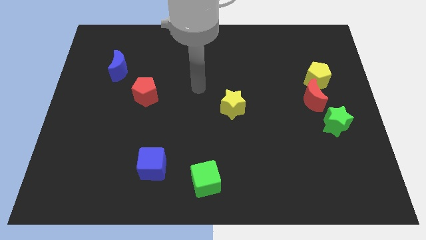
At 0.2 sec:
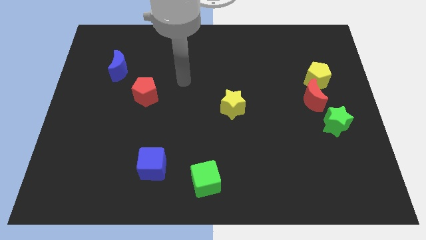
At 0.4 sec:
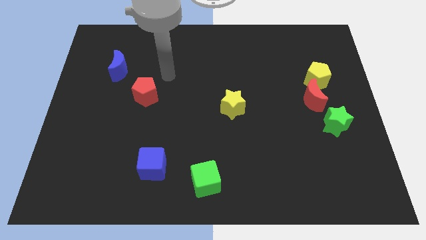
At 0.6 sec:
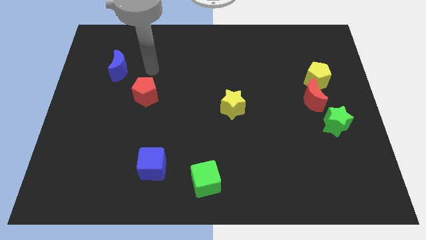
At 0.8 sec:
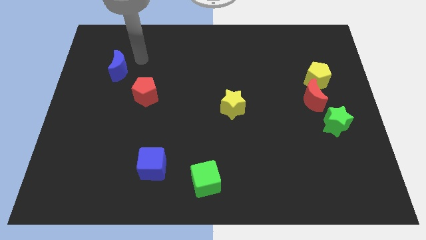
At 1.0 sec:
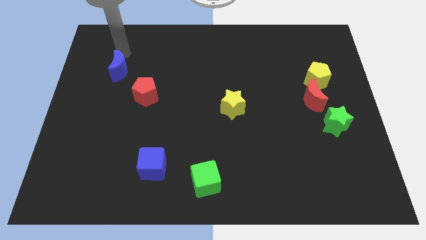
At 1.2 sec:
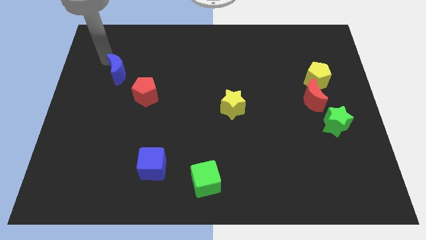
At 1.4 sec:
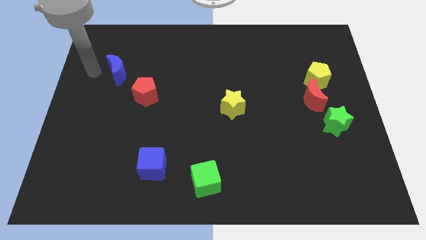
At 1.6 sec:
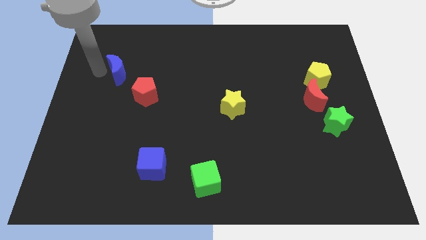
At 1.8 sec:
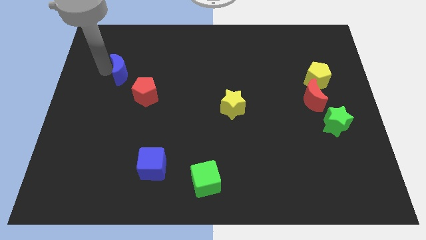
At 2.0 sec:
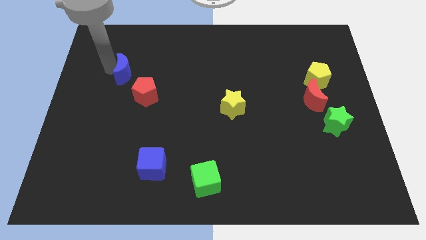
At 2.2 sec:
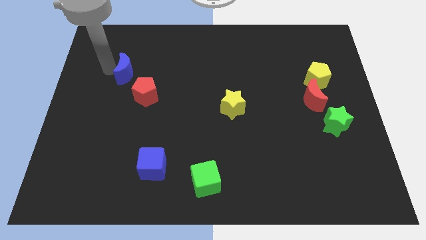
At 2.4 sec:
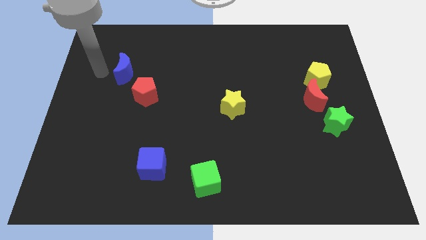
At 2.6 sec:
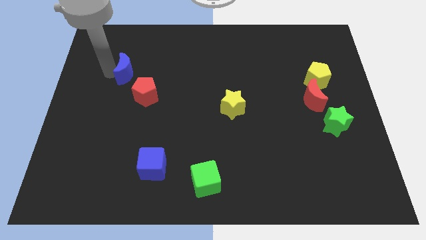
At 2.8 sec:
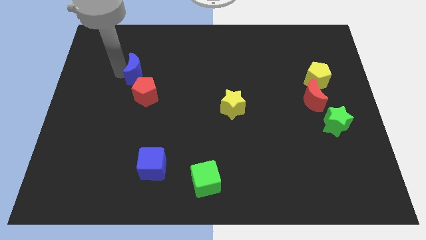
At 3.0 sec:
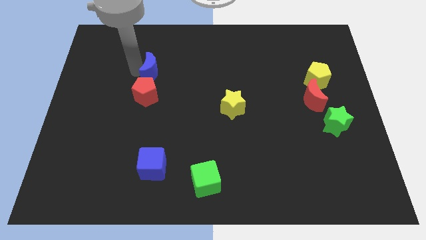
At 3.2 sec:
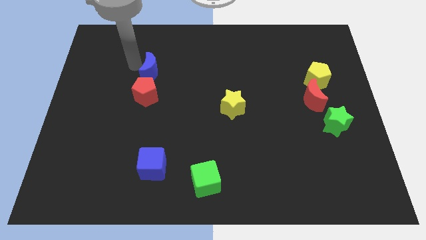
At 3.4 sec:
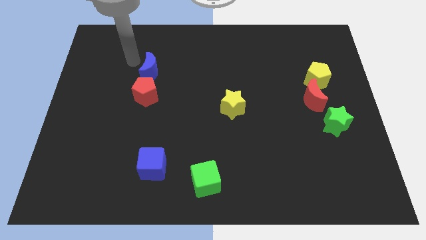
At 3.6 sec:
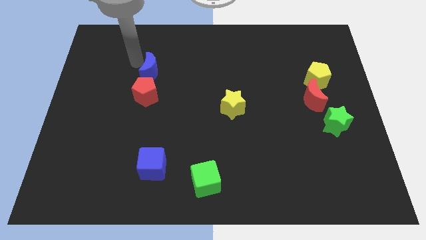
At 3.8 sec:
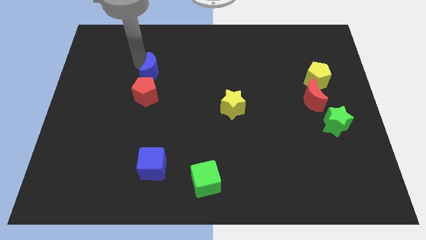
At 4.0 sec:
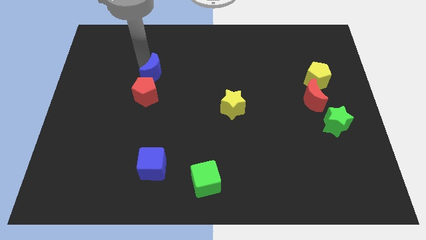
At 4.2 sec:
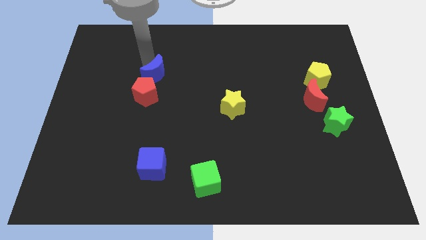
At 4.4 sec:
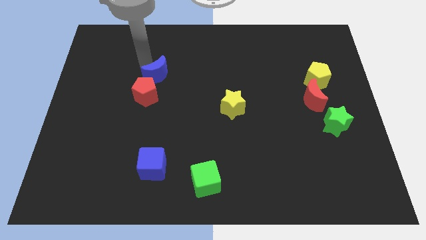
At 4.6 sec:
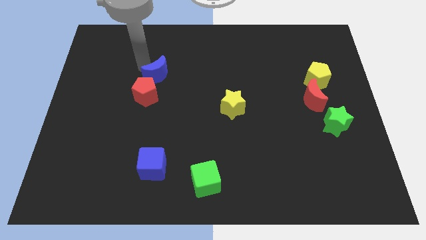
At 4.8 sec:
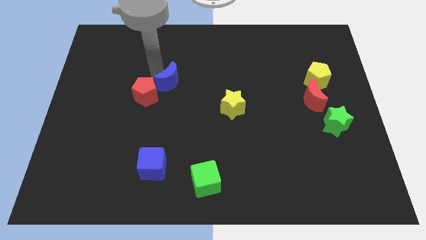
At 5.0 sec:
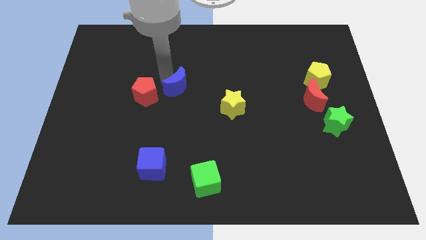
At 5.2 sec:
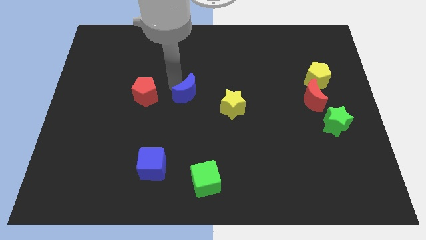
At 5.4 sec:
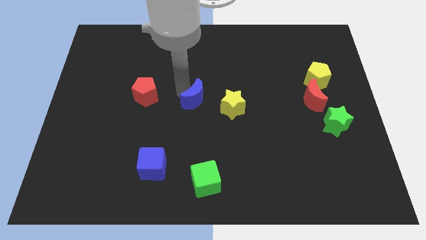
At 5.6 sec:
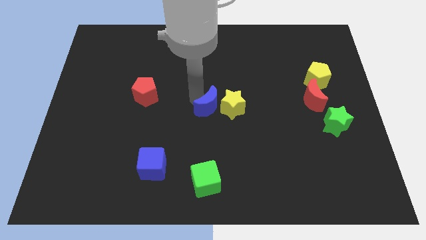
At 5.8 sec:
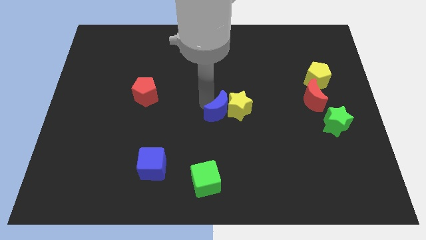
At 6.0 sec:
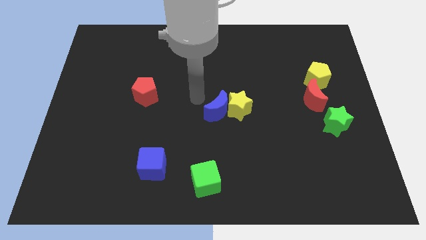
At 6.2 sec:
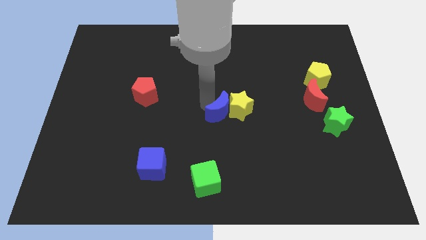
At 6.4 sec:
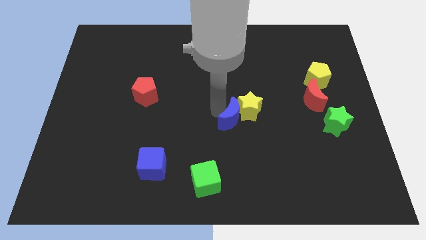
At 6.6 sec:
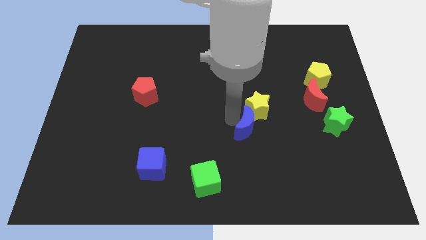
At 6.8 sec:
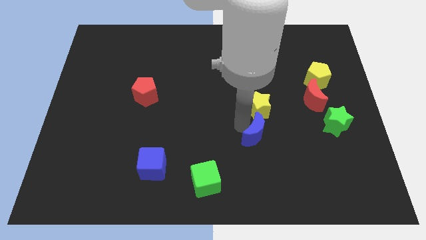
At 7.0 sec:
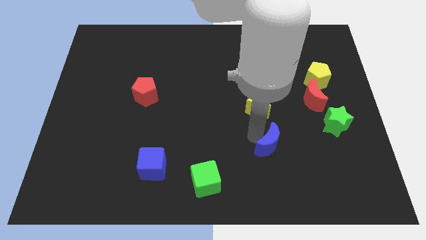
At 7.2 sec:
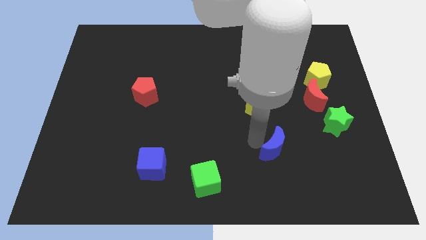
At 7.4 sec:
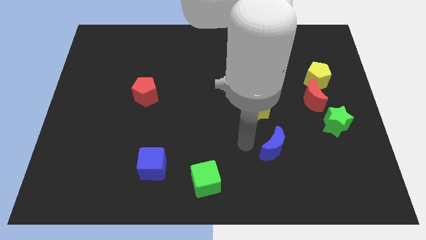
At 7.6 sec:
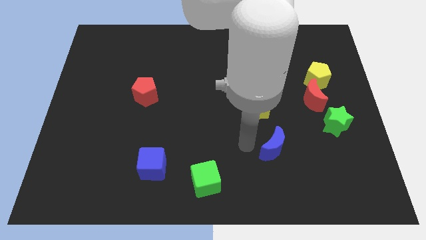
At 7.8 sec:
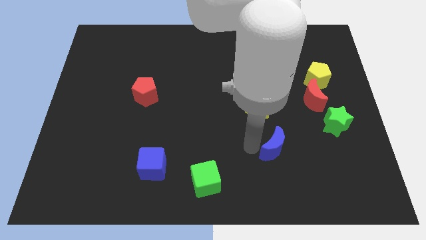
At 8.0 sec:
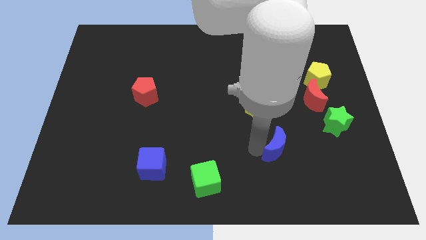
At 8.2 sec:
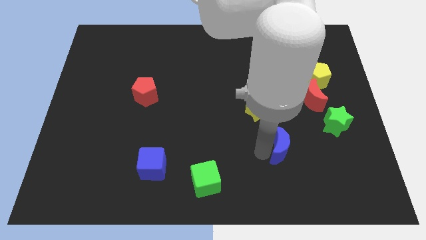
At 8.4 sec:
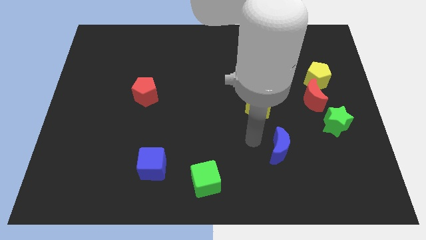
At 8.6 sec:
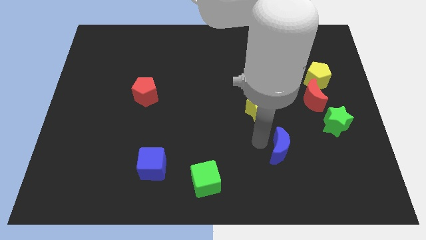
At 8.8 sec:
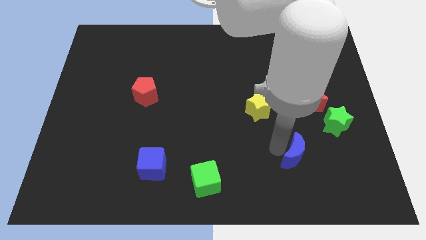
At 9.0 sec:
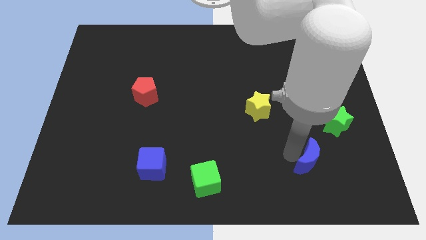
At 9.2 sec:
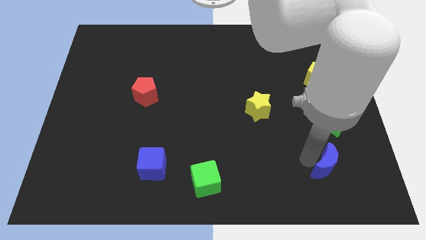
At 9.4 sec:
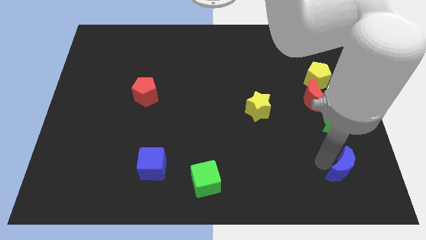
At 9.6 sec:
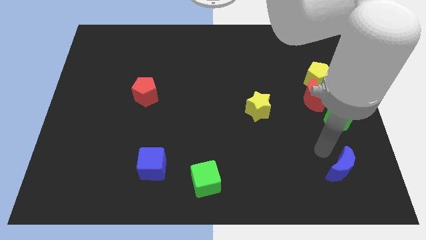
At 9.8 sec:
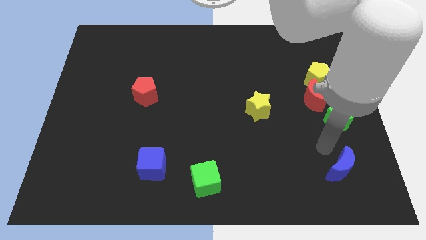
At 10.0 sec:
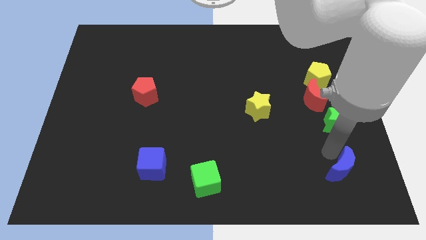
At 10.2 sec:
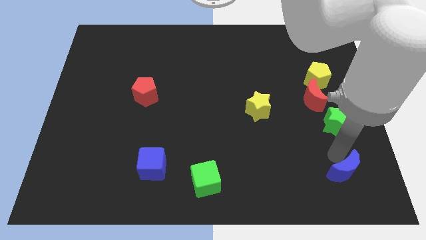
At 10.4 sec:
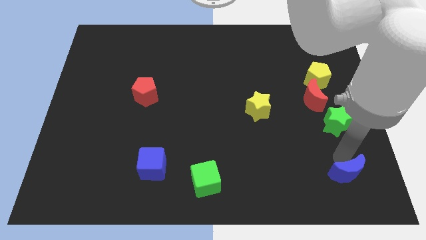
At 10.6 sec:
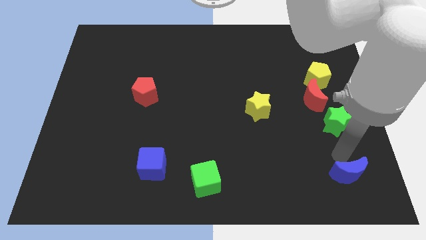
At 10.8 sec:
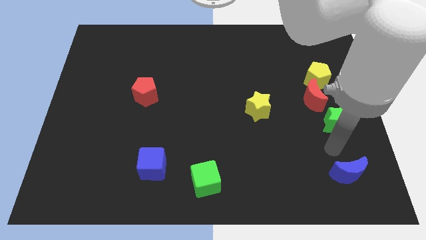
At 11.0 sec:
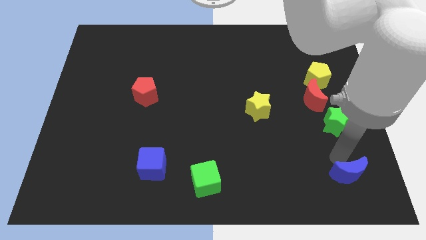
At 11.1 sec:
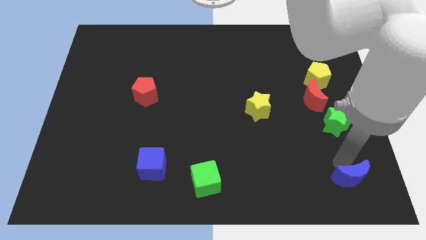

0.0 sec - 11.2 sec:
push the blue moon to the bottom right of the board

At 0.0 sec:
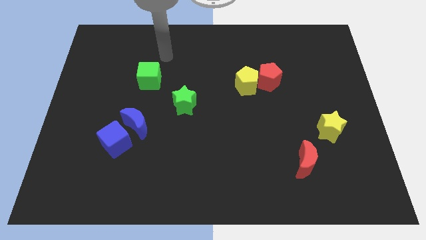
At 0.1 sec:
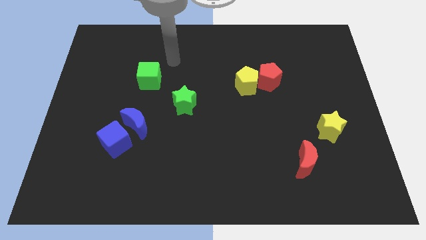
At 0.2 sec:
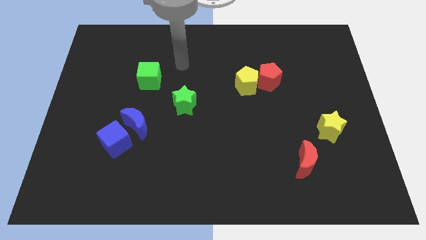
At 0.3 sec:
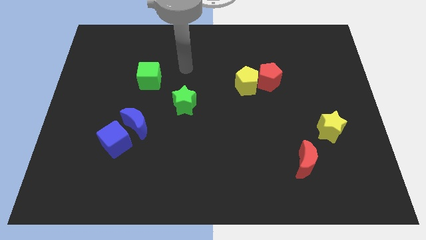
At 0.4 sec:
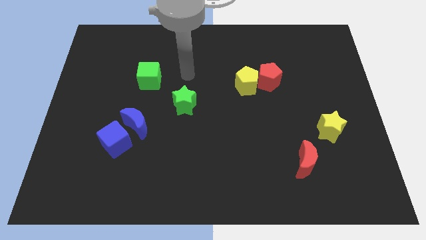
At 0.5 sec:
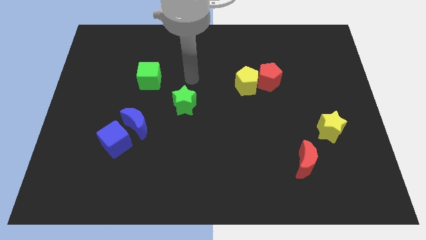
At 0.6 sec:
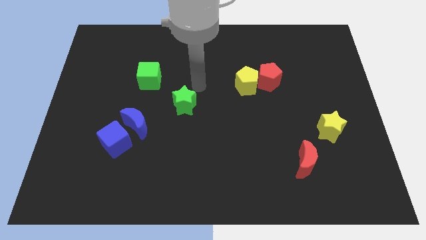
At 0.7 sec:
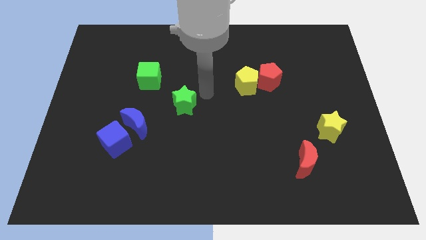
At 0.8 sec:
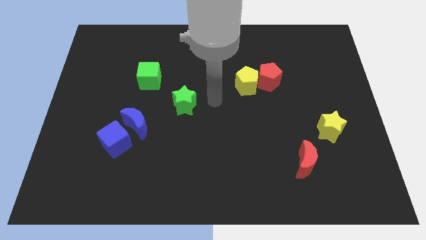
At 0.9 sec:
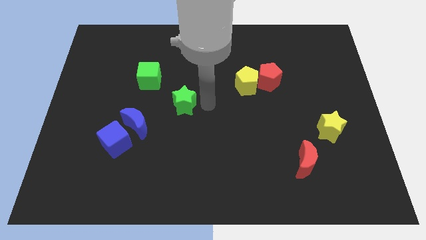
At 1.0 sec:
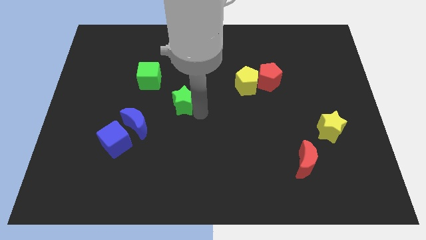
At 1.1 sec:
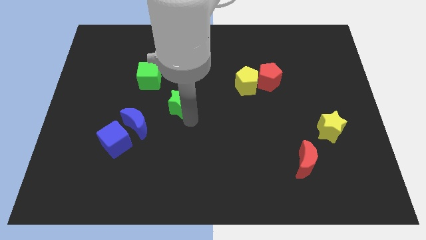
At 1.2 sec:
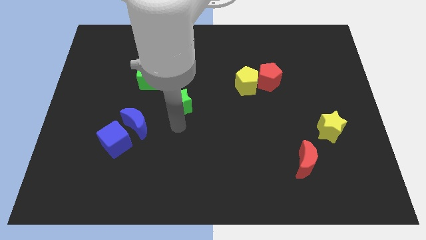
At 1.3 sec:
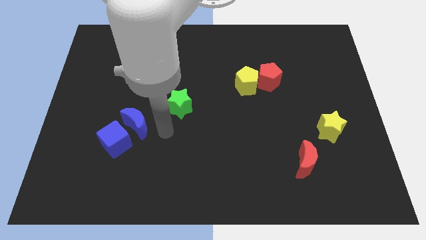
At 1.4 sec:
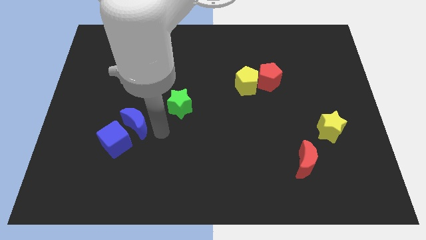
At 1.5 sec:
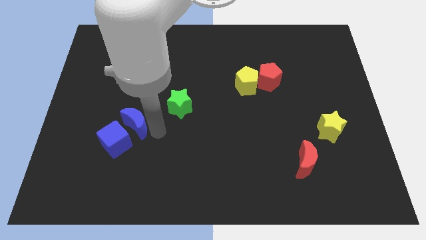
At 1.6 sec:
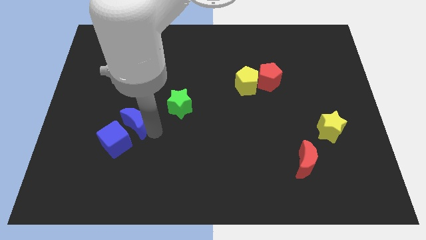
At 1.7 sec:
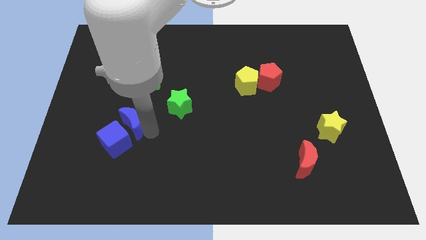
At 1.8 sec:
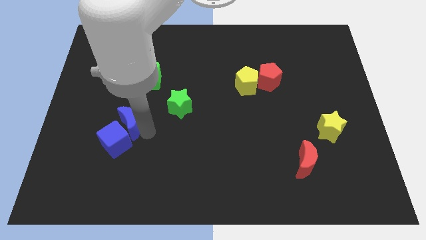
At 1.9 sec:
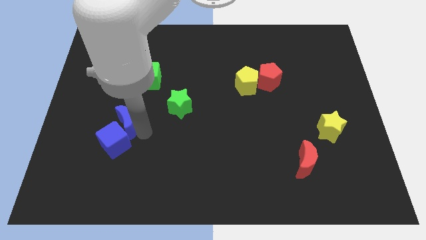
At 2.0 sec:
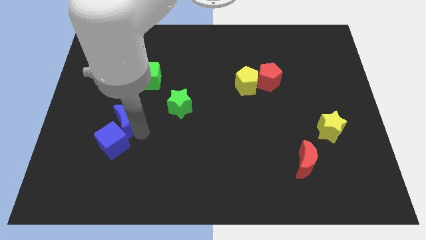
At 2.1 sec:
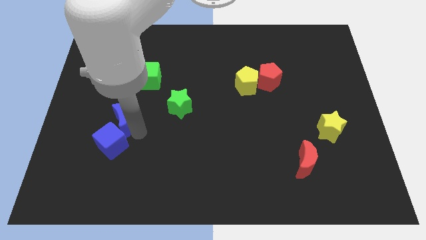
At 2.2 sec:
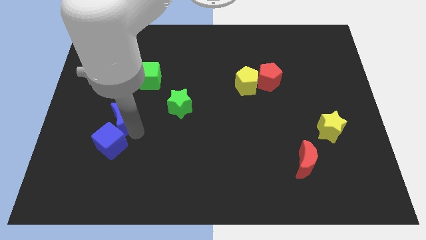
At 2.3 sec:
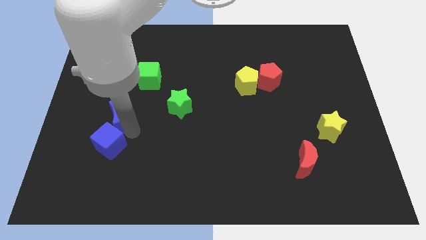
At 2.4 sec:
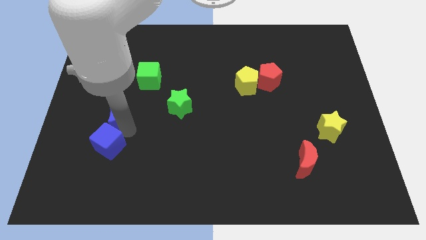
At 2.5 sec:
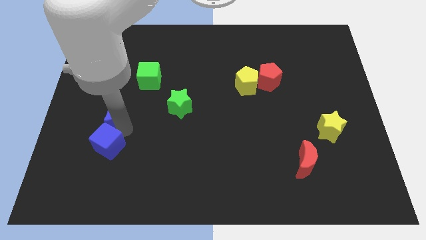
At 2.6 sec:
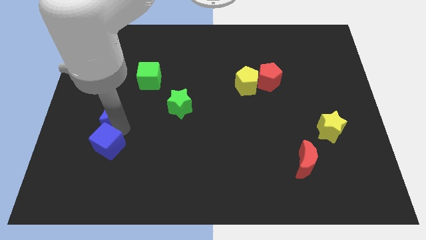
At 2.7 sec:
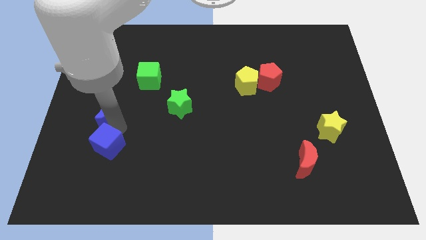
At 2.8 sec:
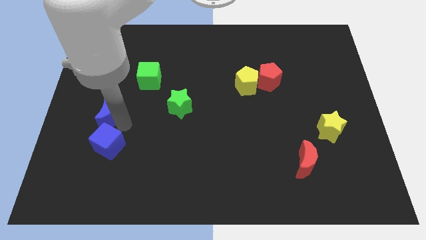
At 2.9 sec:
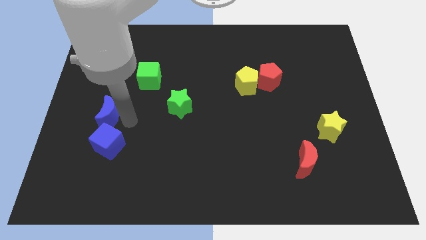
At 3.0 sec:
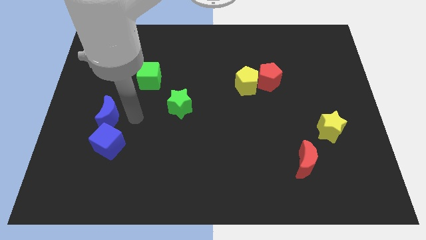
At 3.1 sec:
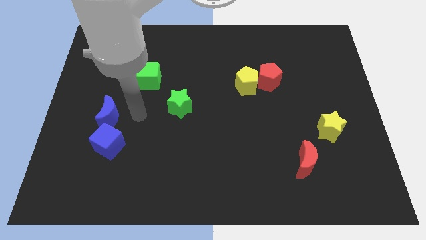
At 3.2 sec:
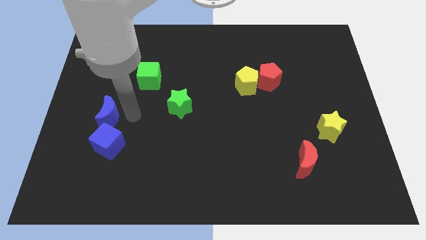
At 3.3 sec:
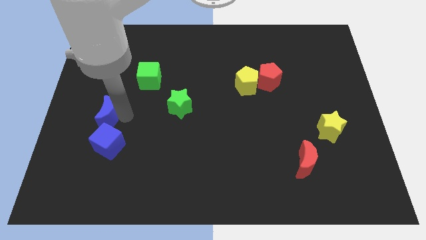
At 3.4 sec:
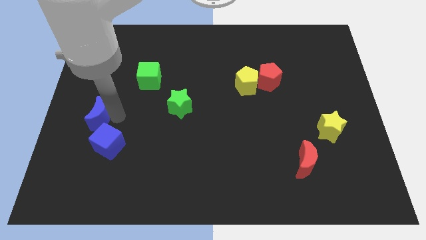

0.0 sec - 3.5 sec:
push the blue moon to the center left
